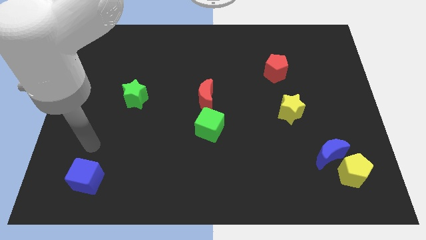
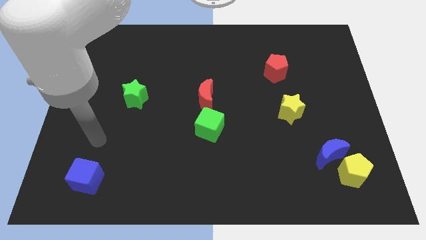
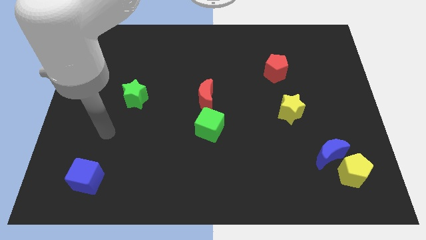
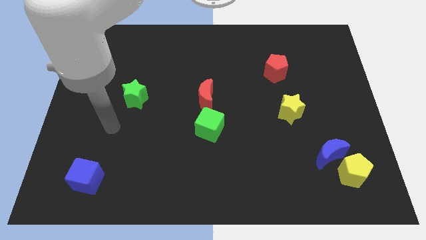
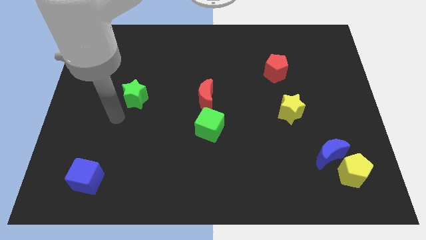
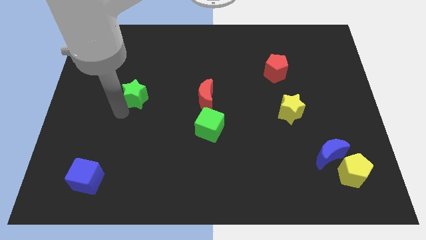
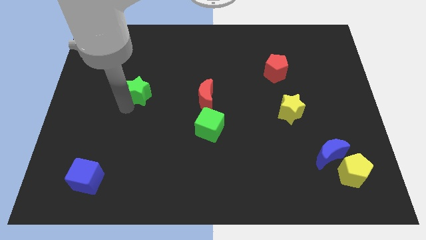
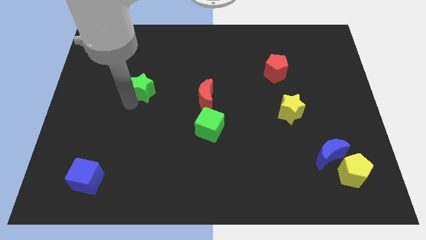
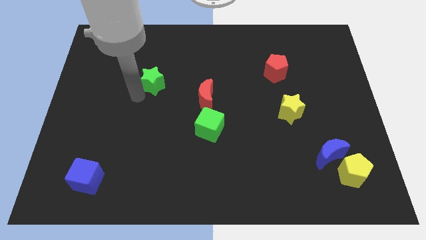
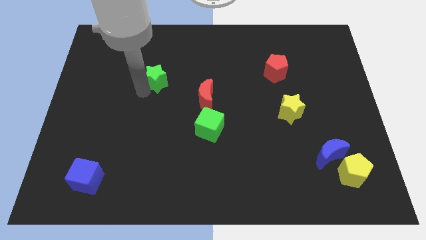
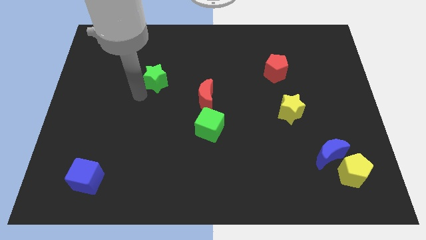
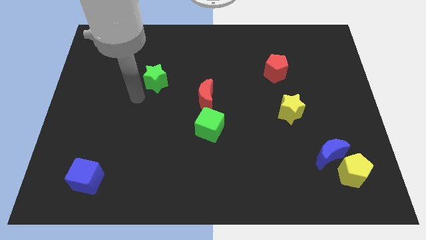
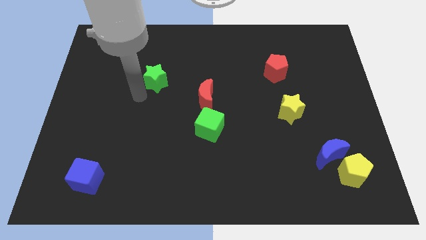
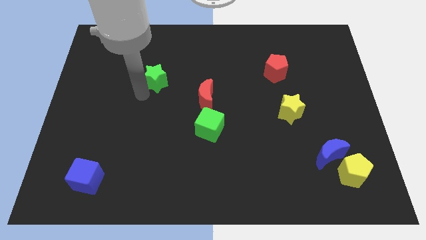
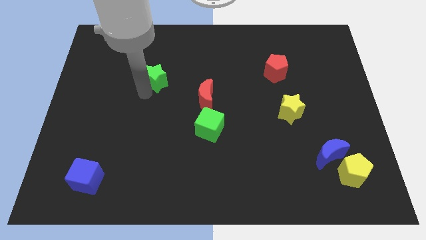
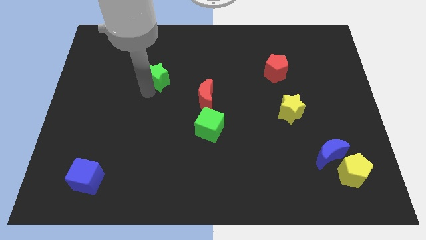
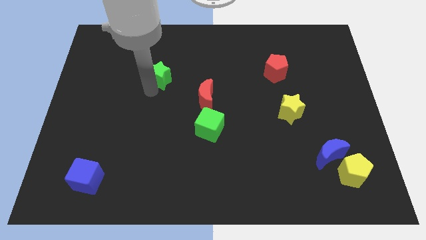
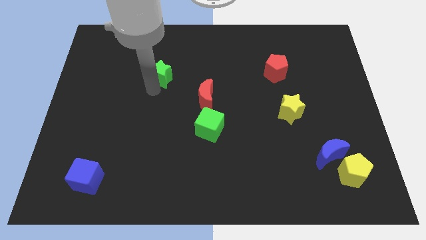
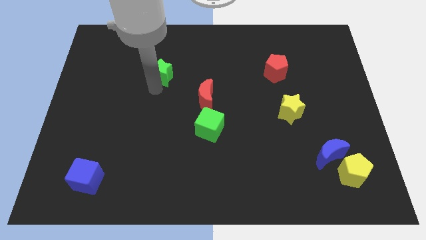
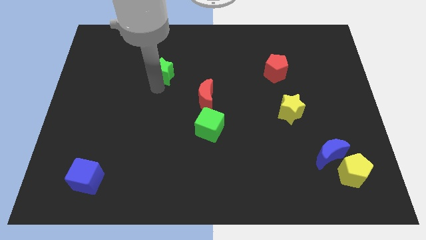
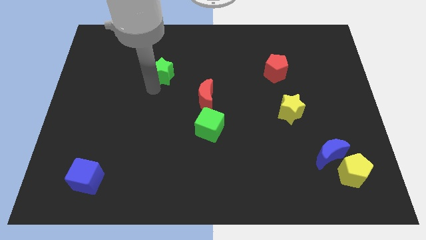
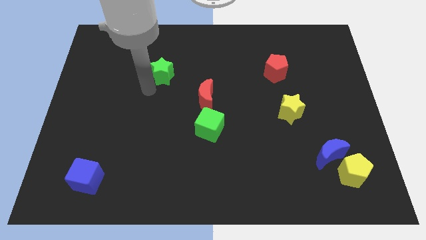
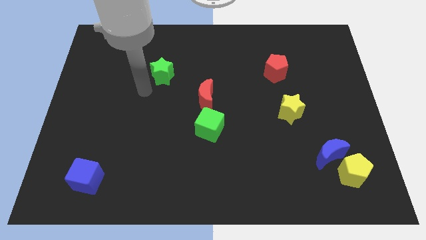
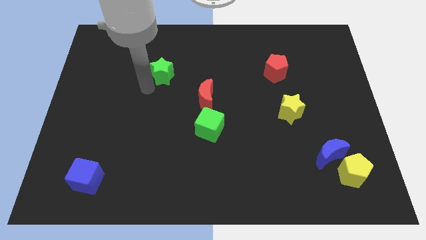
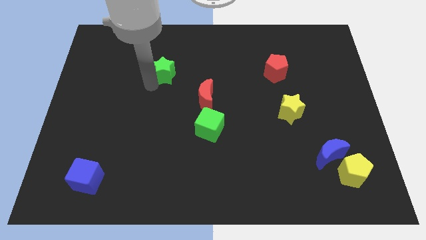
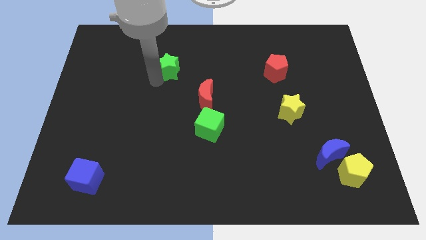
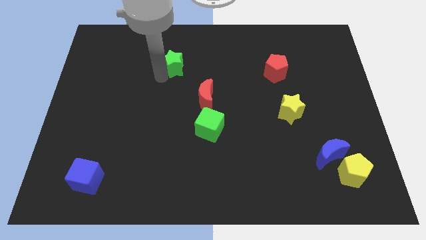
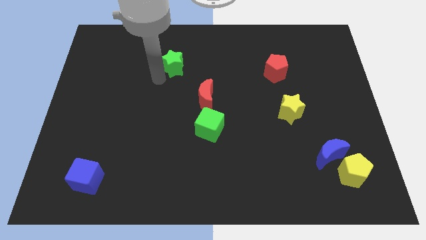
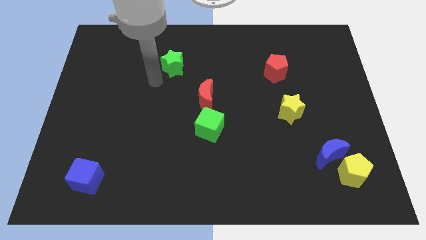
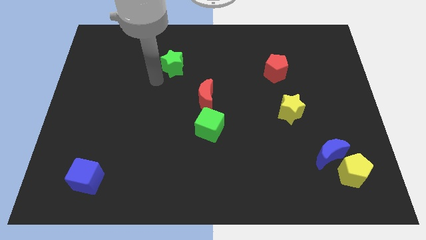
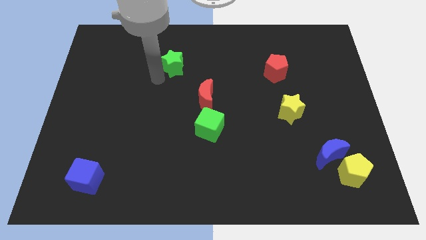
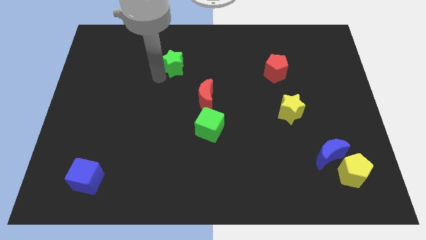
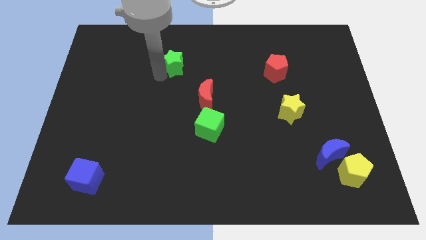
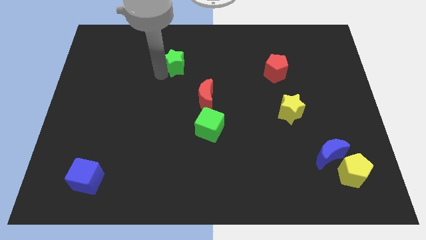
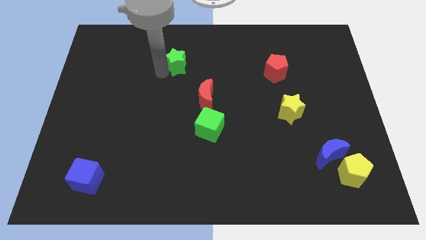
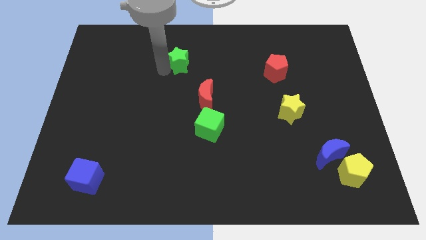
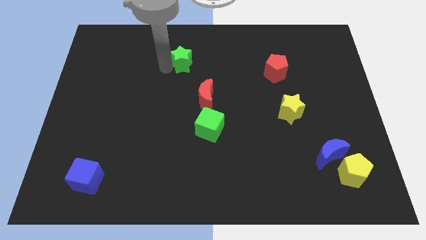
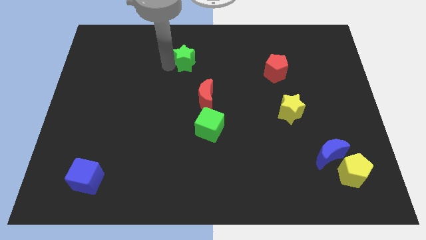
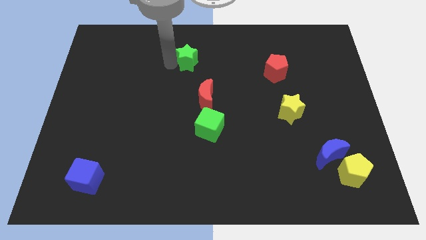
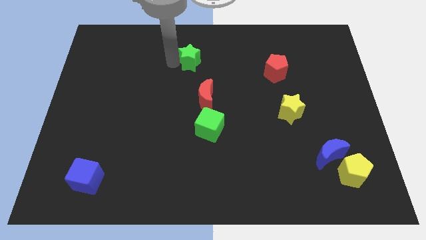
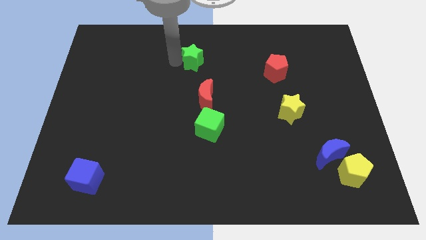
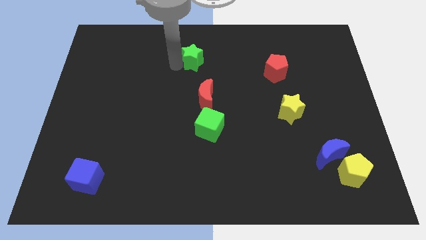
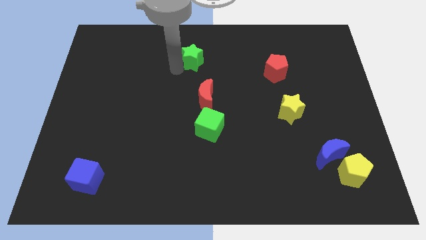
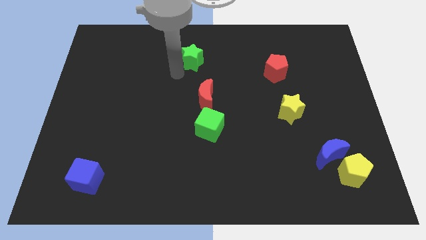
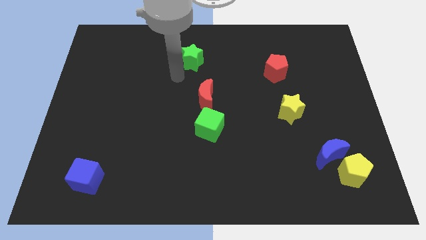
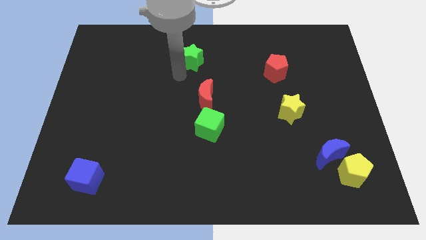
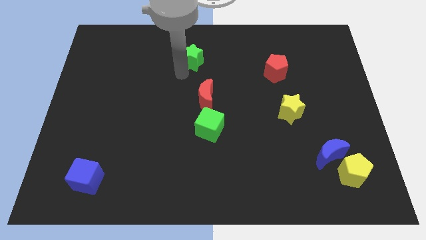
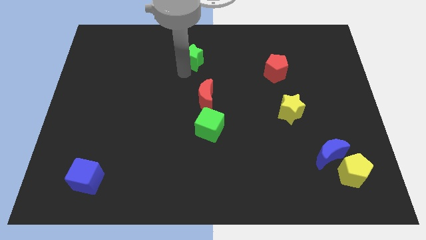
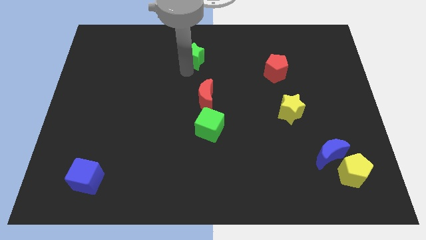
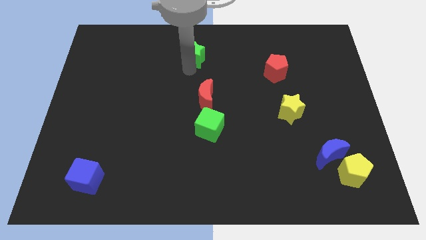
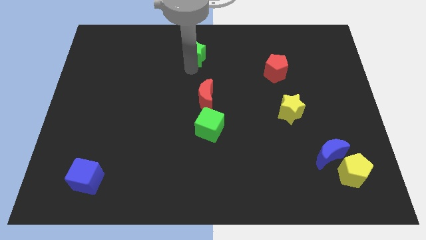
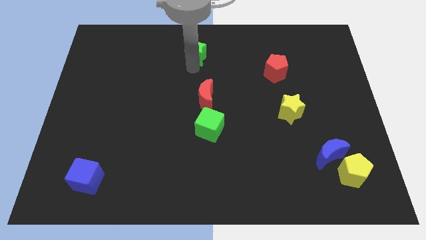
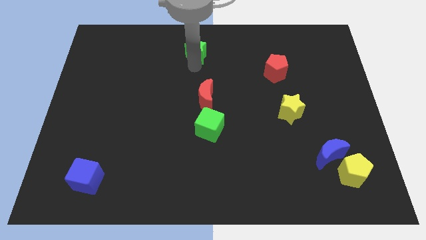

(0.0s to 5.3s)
move the green star to the top side

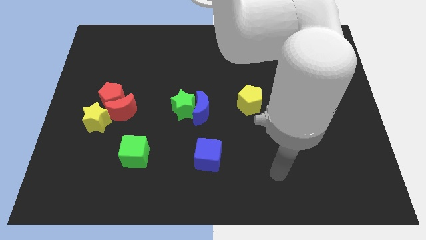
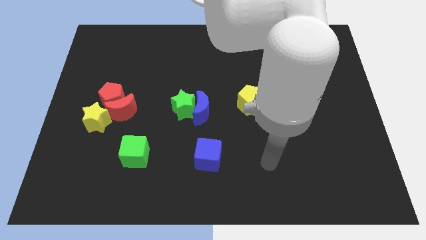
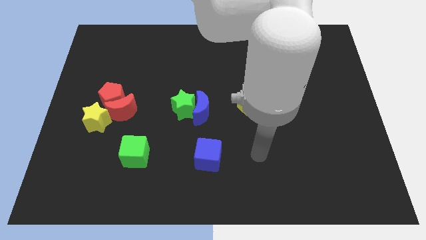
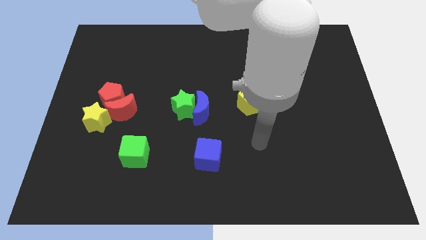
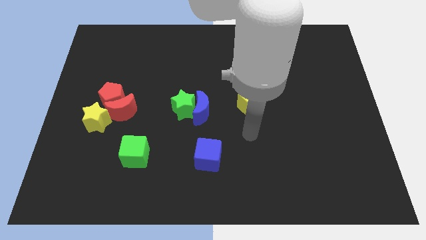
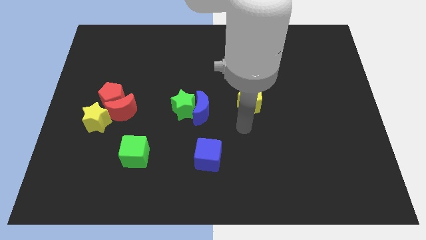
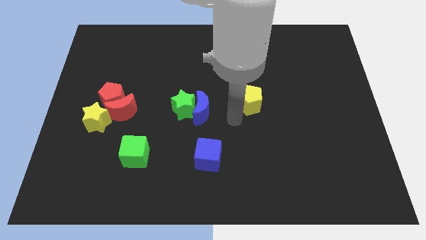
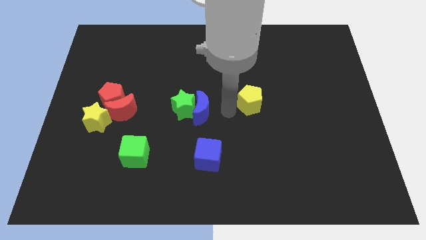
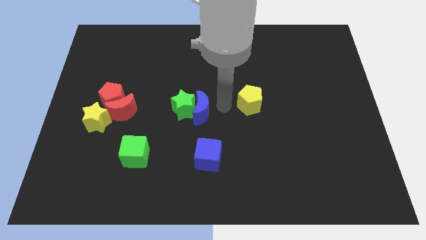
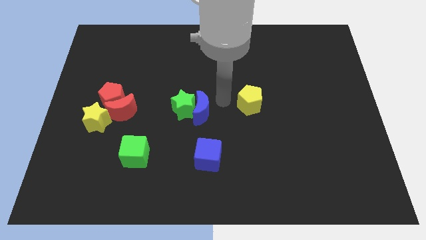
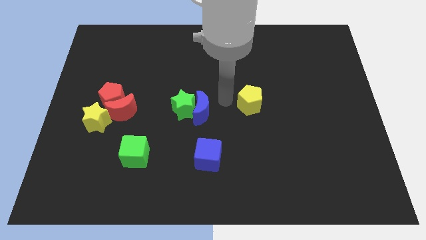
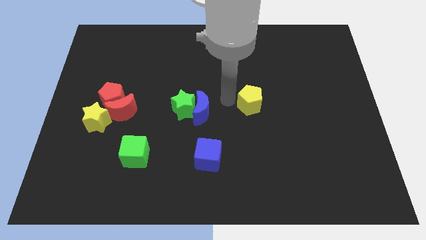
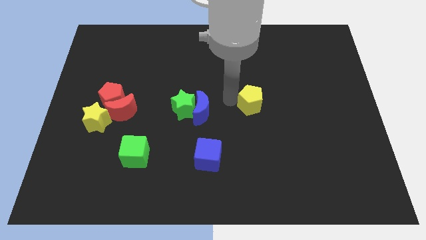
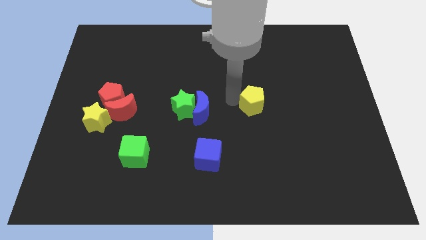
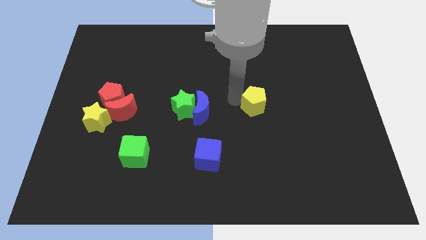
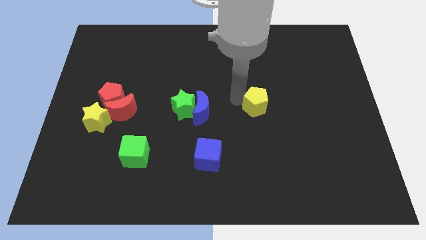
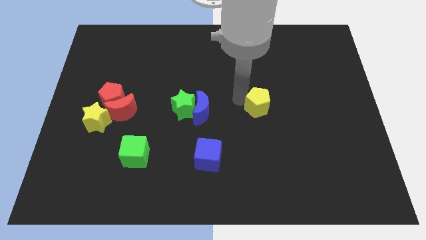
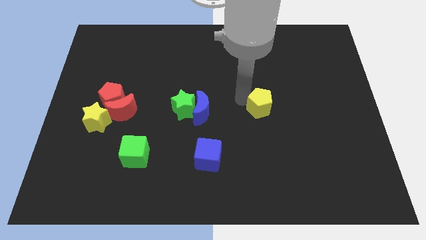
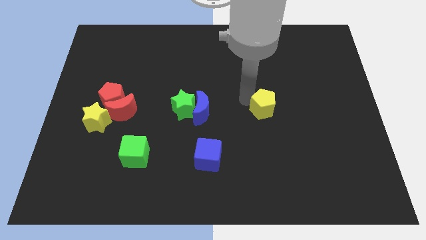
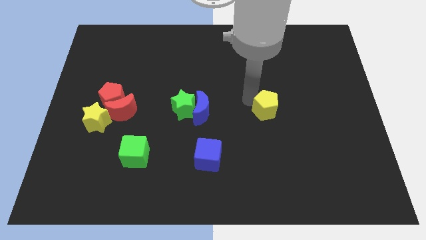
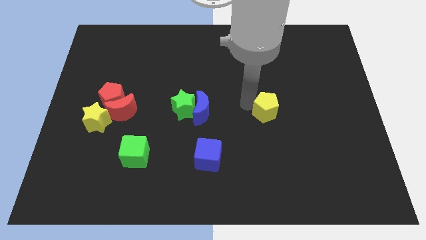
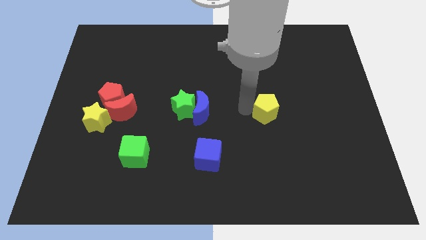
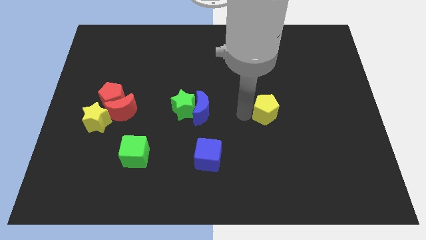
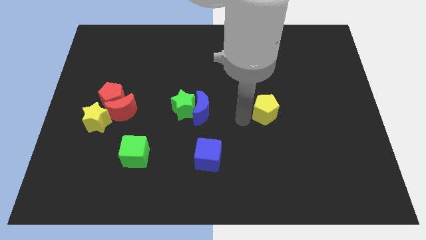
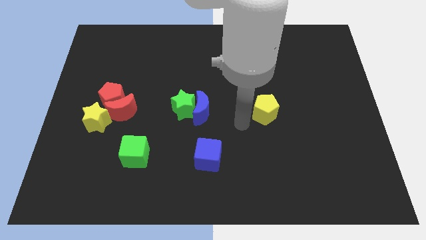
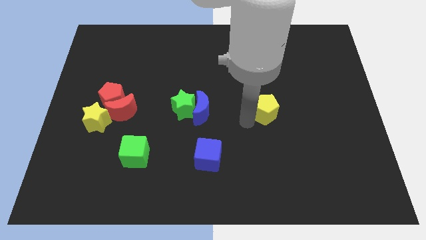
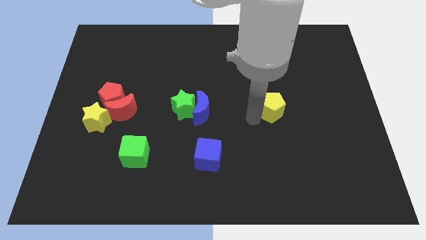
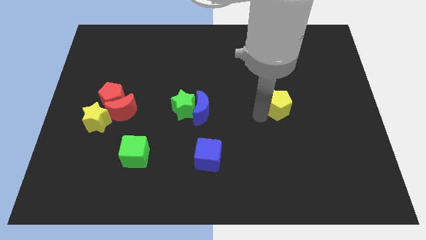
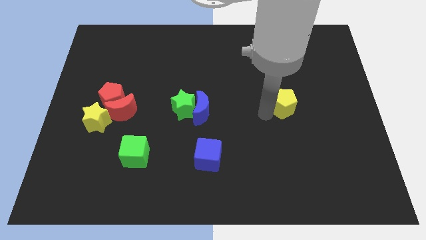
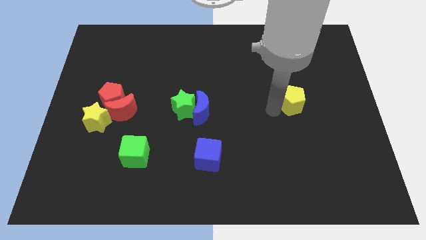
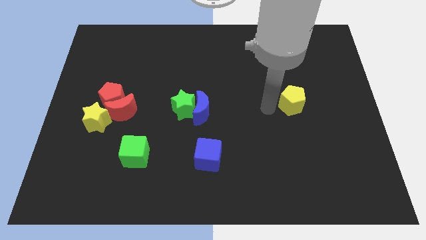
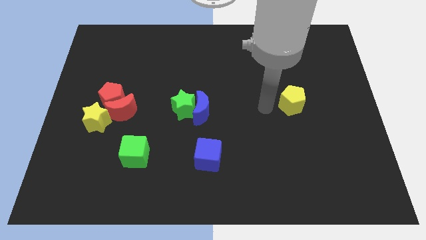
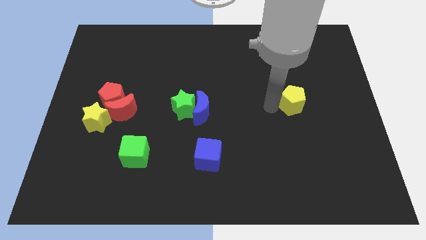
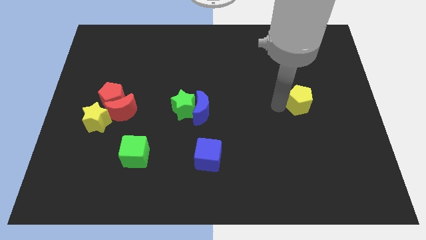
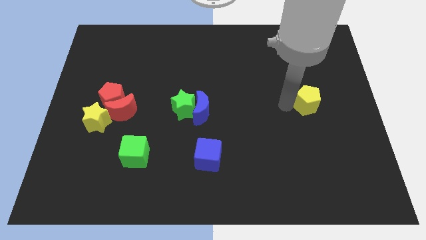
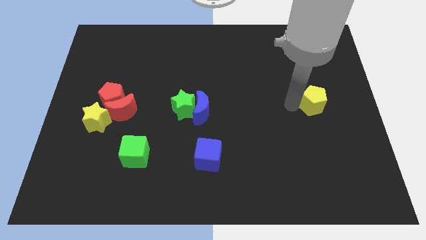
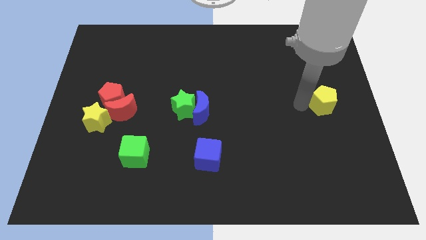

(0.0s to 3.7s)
move the yellow pentagon to the right side of the board
